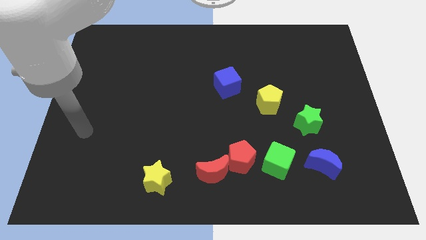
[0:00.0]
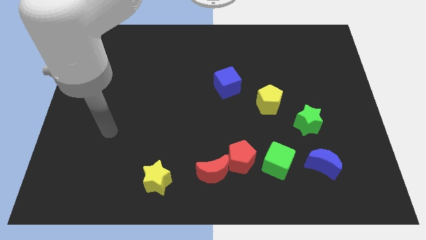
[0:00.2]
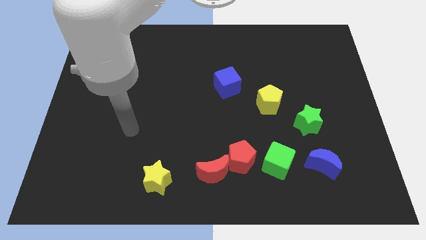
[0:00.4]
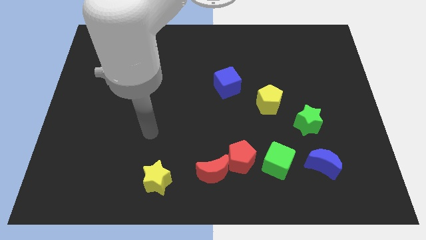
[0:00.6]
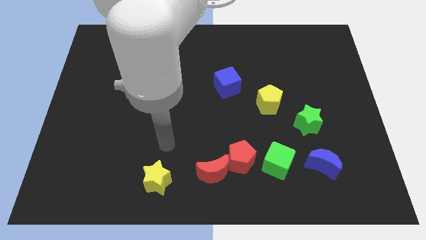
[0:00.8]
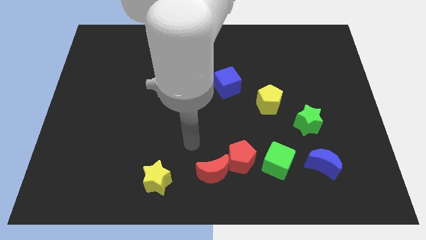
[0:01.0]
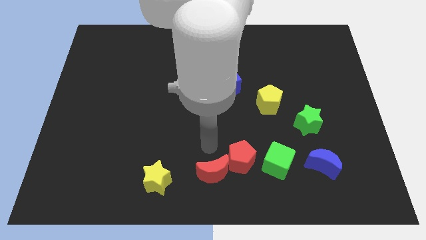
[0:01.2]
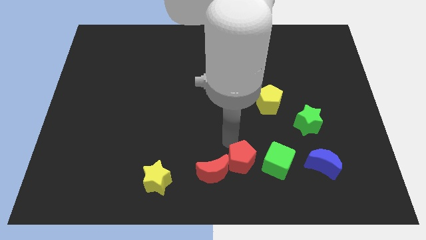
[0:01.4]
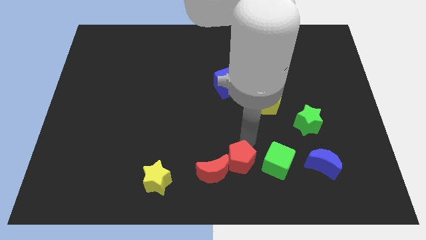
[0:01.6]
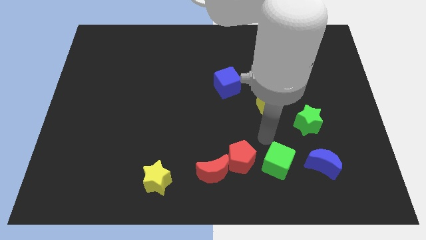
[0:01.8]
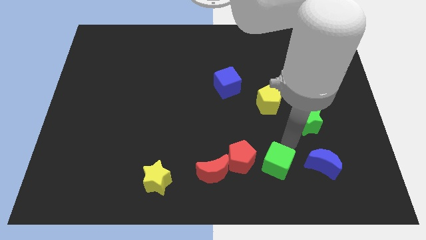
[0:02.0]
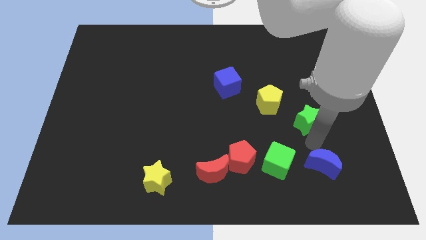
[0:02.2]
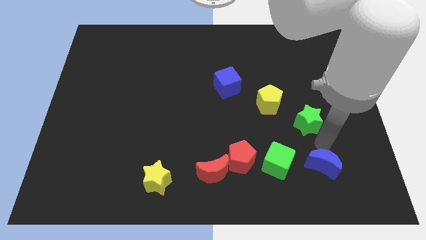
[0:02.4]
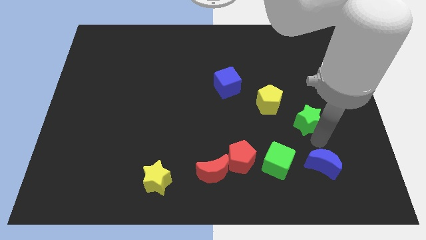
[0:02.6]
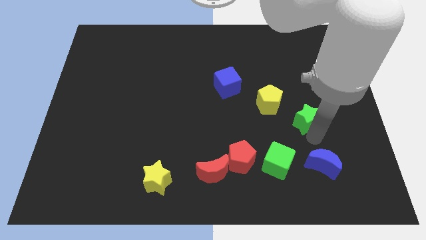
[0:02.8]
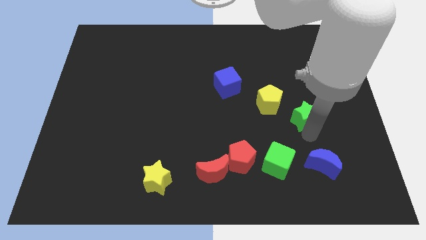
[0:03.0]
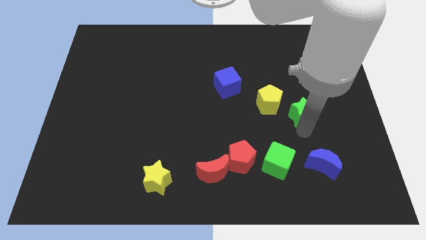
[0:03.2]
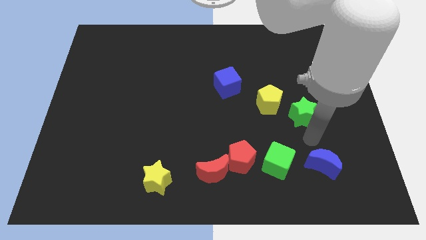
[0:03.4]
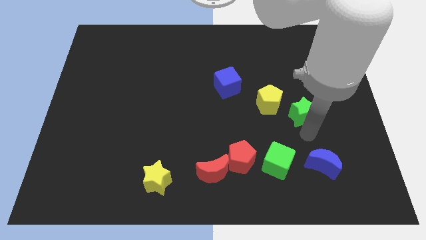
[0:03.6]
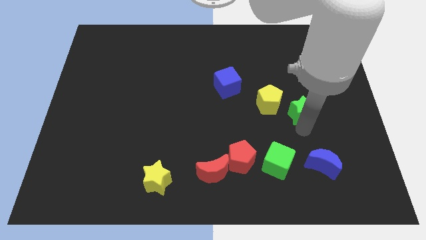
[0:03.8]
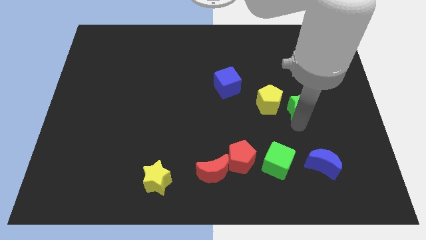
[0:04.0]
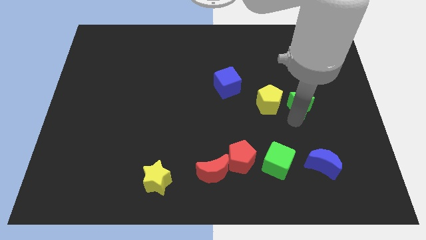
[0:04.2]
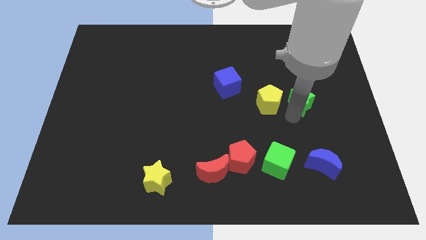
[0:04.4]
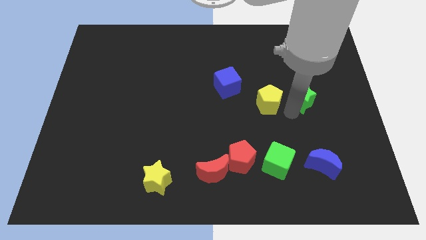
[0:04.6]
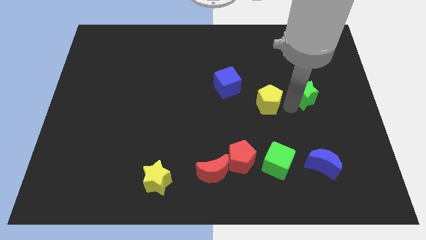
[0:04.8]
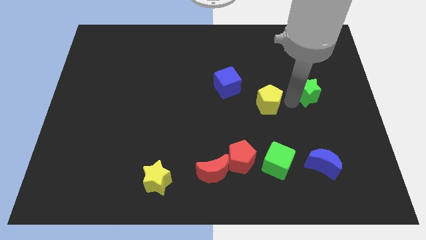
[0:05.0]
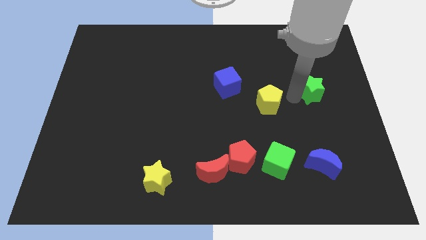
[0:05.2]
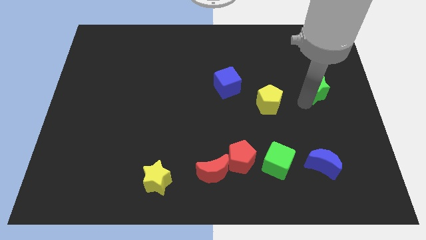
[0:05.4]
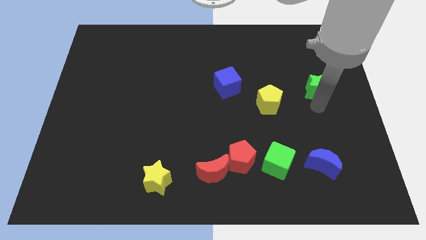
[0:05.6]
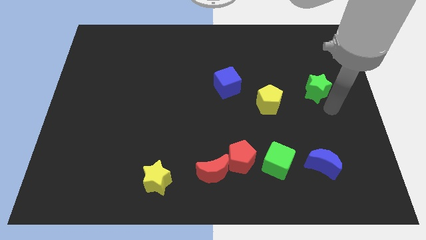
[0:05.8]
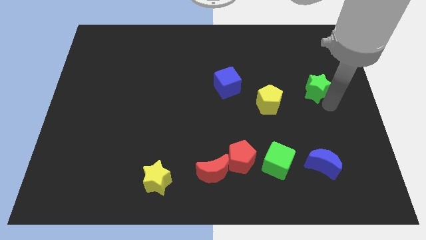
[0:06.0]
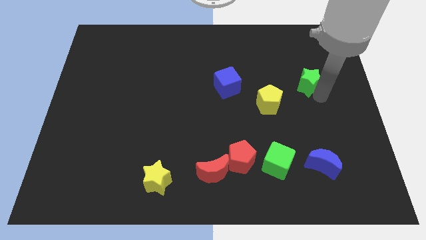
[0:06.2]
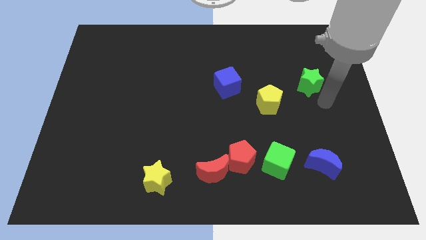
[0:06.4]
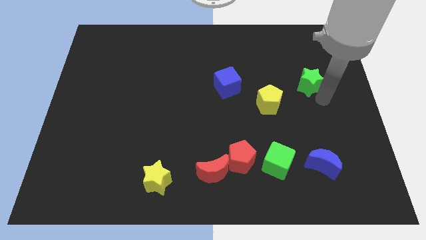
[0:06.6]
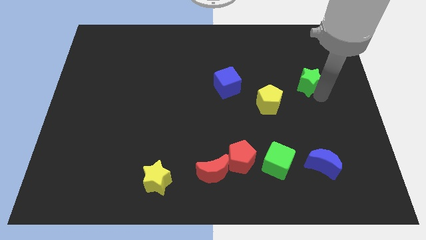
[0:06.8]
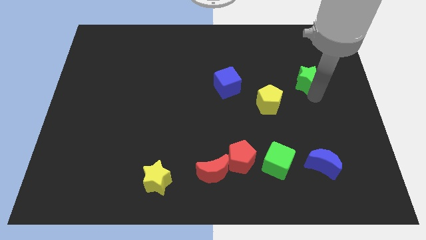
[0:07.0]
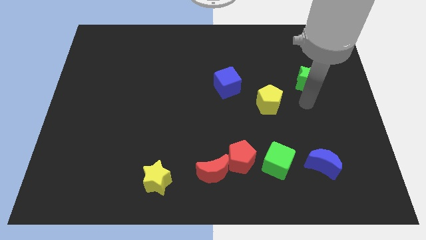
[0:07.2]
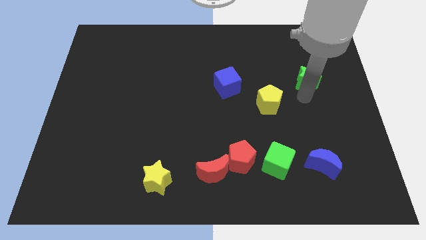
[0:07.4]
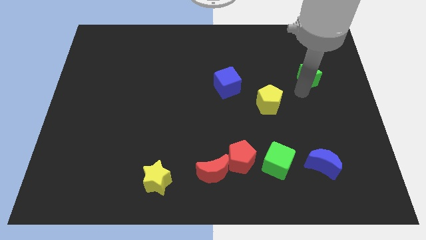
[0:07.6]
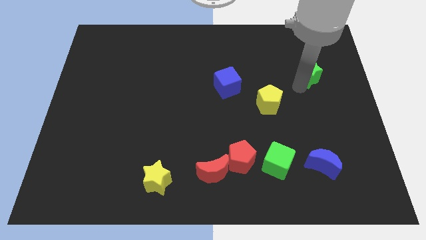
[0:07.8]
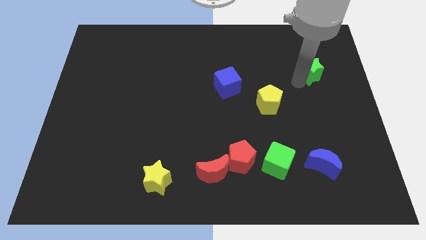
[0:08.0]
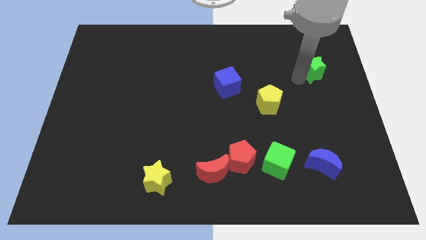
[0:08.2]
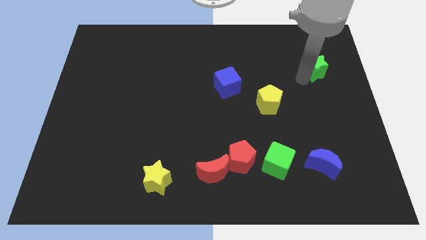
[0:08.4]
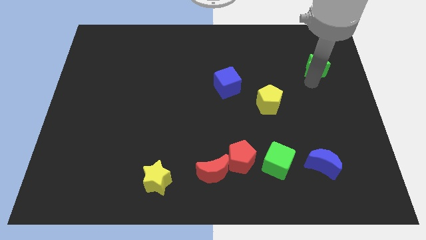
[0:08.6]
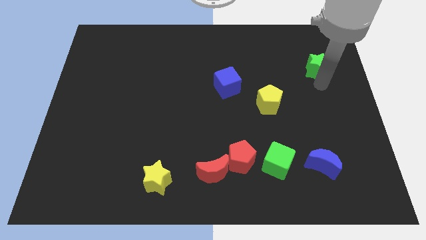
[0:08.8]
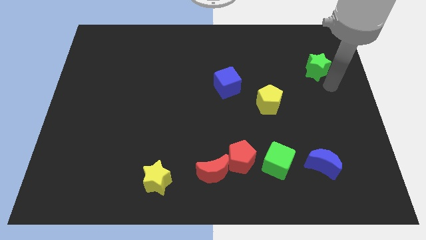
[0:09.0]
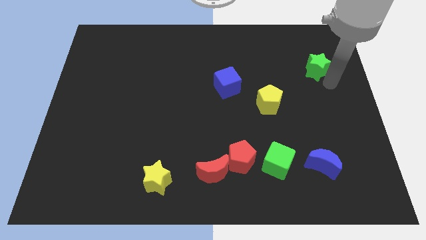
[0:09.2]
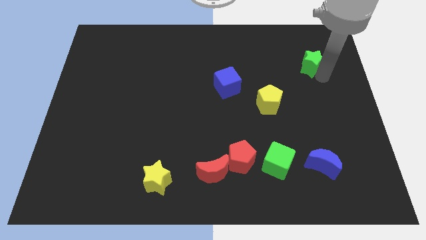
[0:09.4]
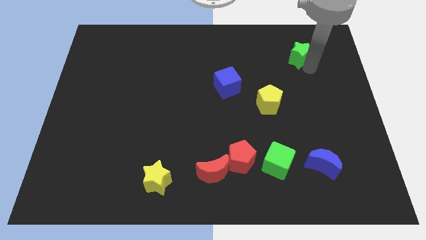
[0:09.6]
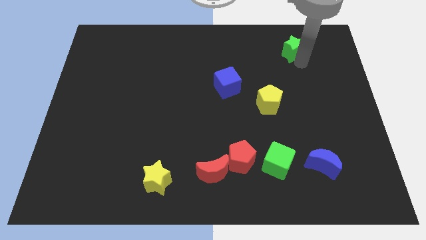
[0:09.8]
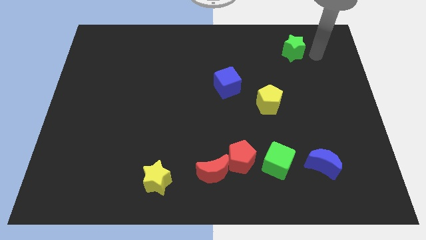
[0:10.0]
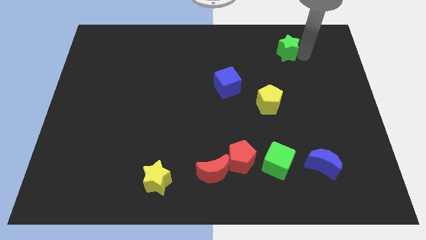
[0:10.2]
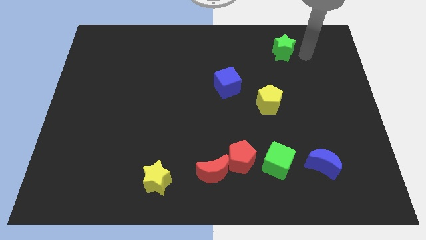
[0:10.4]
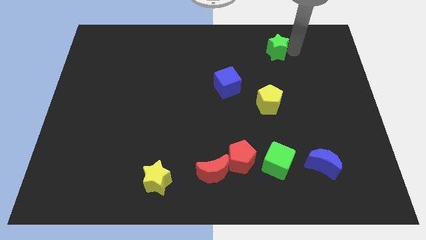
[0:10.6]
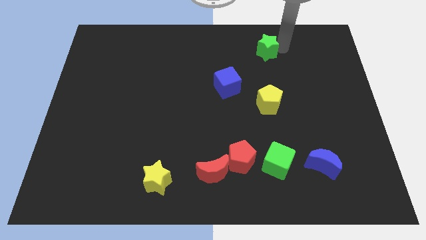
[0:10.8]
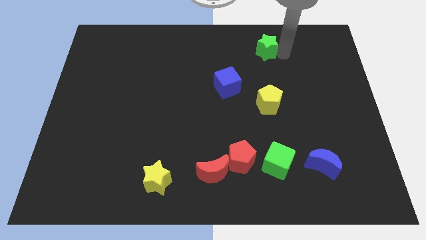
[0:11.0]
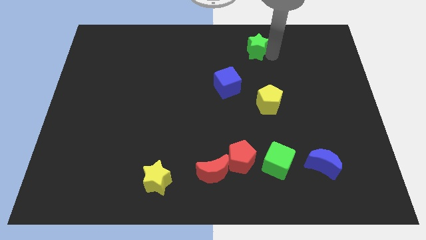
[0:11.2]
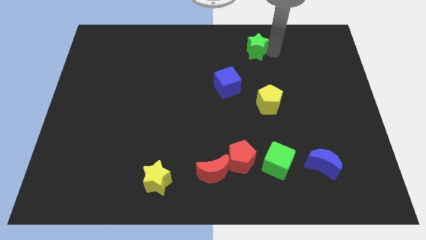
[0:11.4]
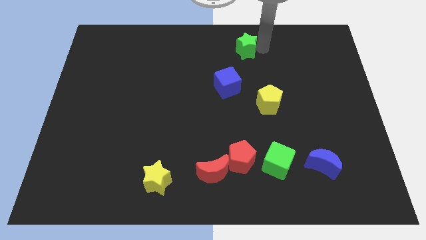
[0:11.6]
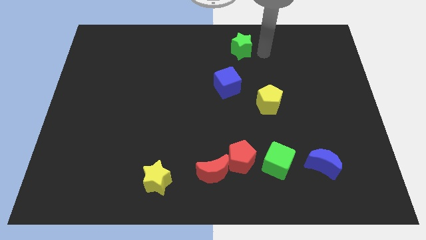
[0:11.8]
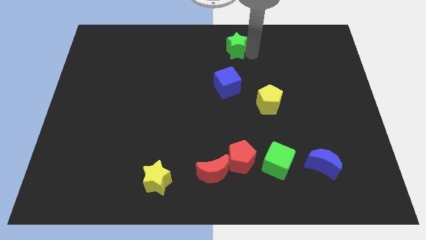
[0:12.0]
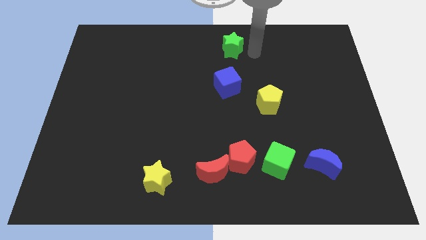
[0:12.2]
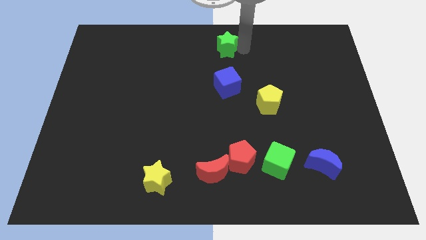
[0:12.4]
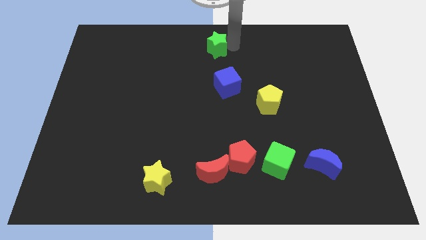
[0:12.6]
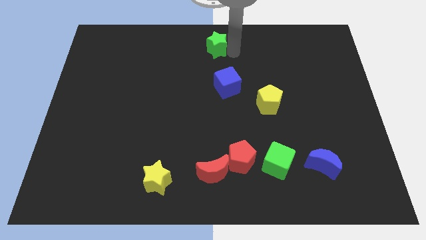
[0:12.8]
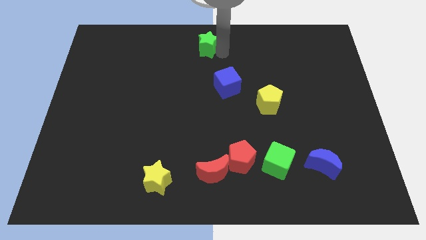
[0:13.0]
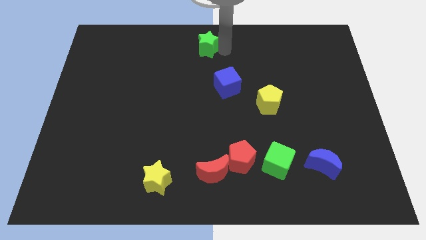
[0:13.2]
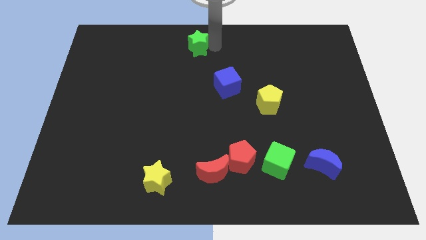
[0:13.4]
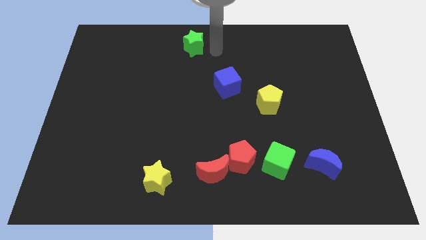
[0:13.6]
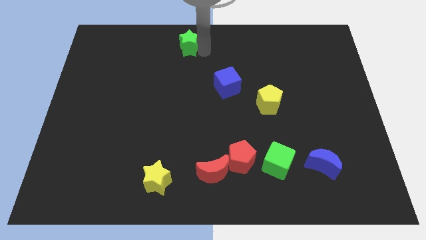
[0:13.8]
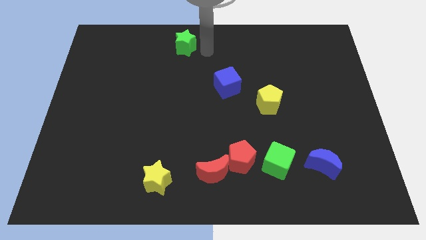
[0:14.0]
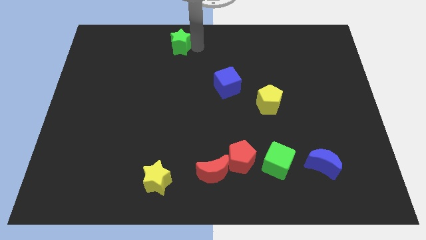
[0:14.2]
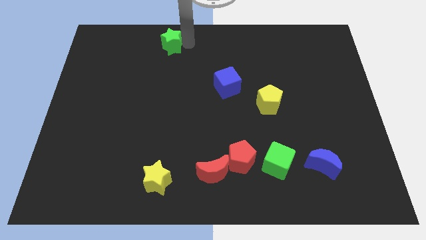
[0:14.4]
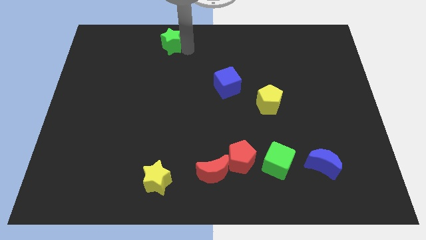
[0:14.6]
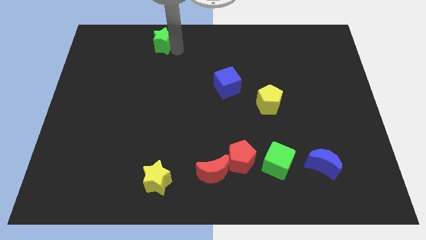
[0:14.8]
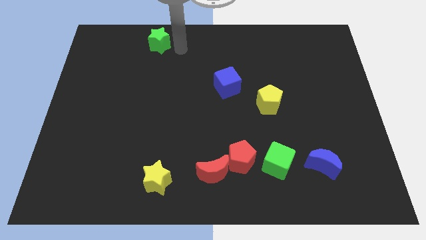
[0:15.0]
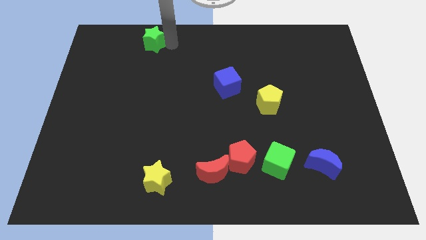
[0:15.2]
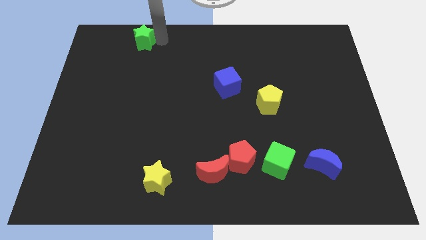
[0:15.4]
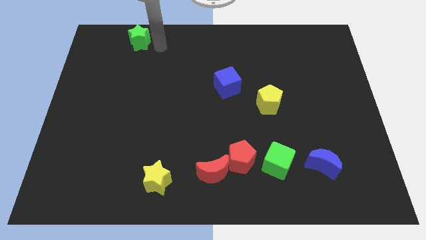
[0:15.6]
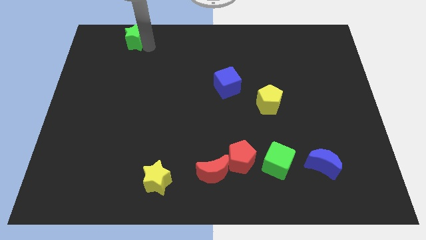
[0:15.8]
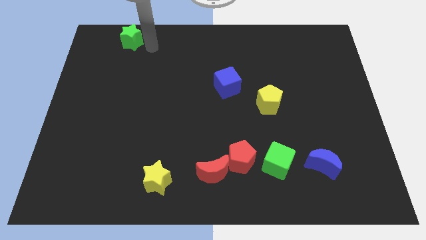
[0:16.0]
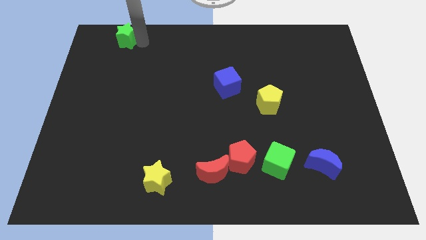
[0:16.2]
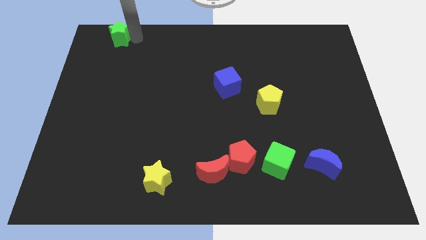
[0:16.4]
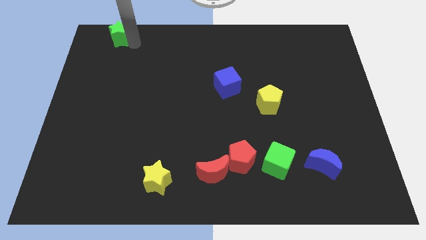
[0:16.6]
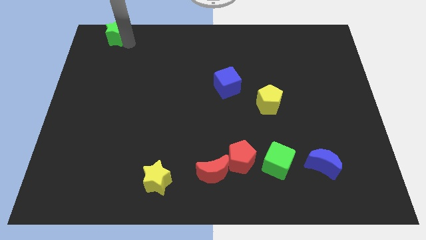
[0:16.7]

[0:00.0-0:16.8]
move the green star to the top left of the board
